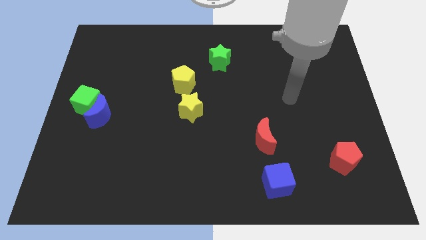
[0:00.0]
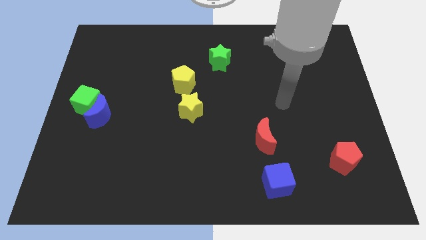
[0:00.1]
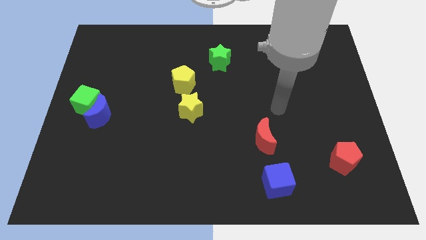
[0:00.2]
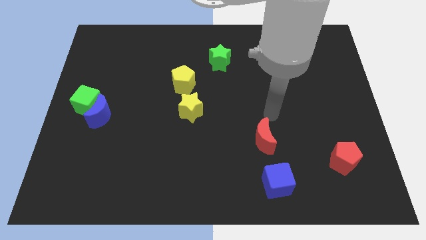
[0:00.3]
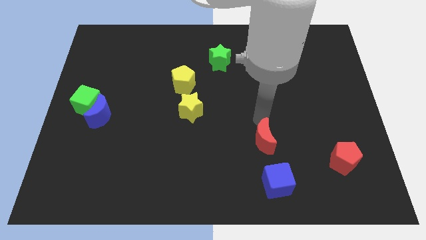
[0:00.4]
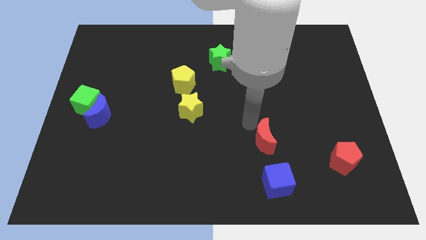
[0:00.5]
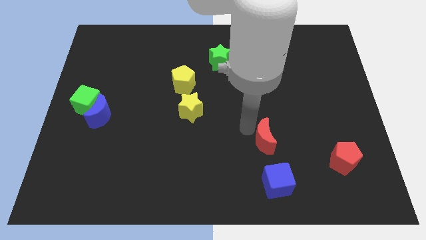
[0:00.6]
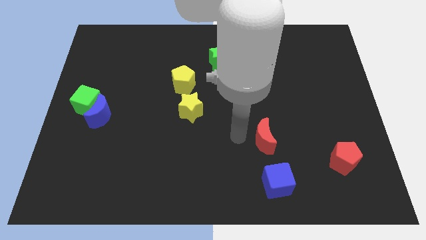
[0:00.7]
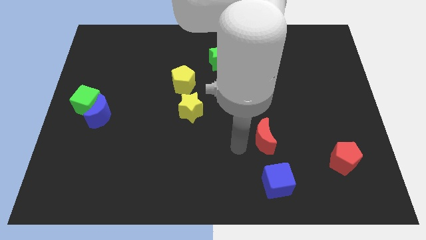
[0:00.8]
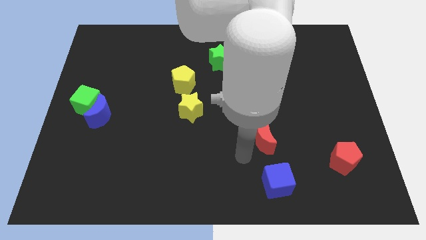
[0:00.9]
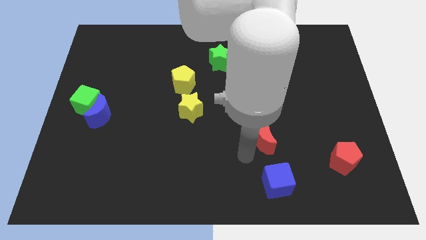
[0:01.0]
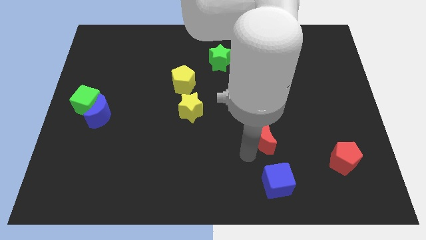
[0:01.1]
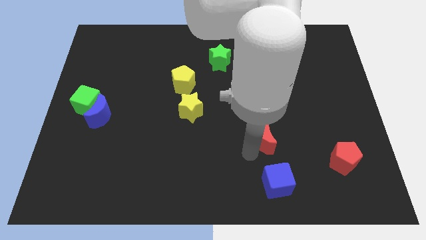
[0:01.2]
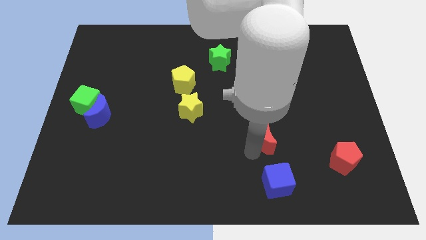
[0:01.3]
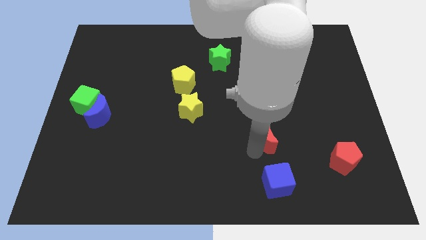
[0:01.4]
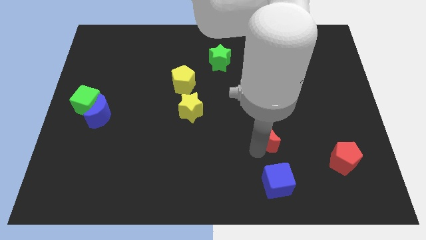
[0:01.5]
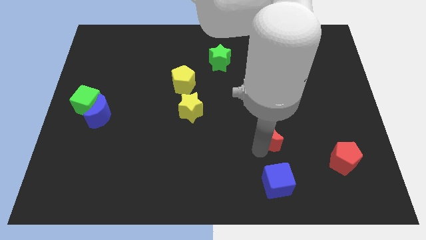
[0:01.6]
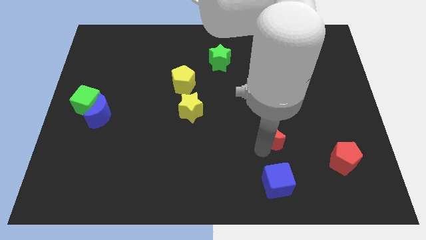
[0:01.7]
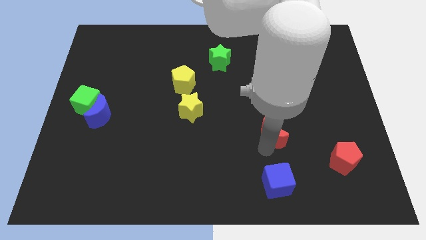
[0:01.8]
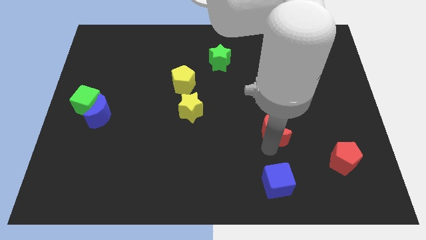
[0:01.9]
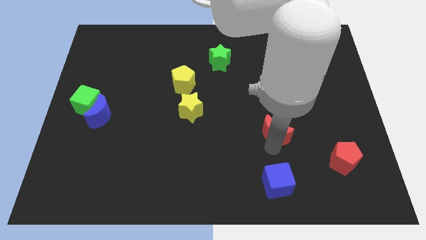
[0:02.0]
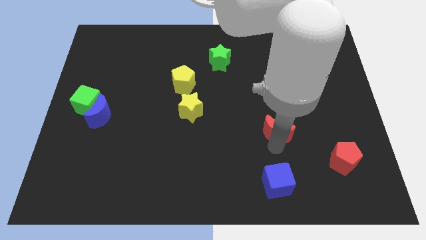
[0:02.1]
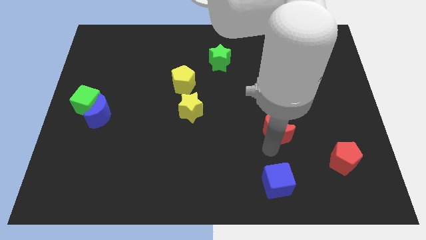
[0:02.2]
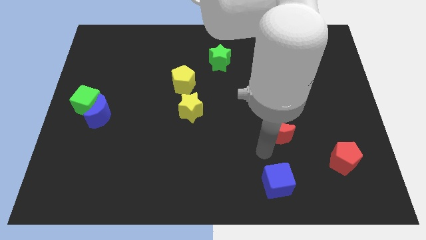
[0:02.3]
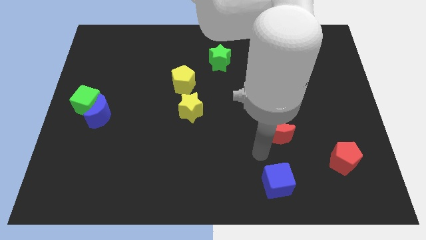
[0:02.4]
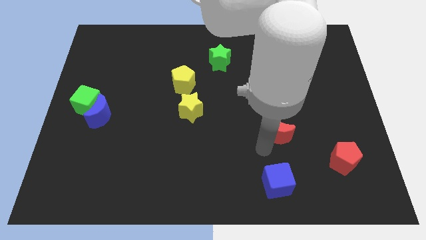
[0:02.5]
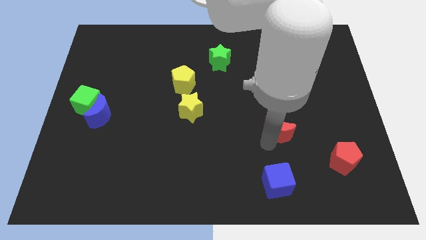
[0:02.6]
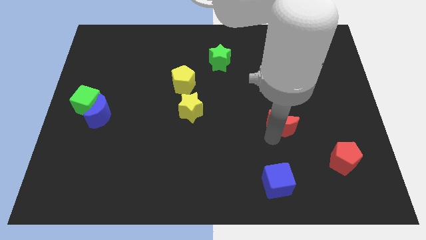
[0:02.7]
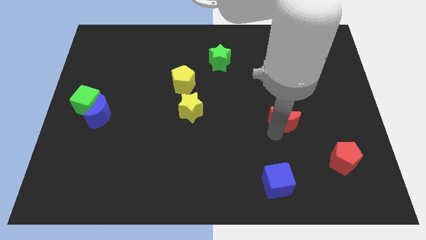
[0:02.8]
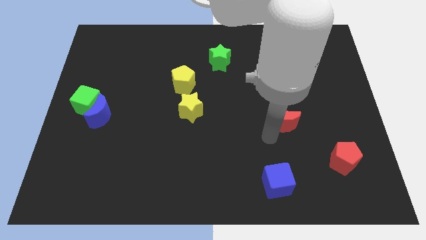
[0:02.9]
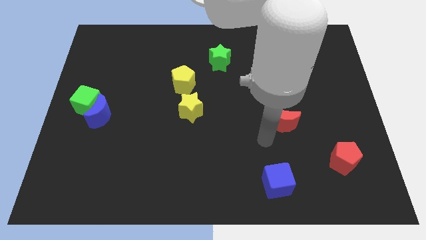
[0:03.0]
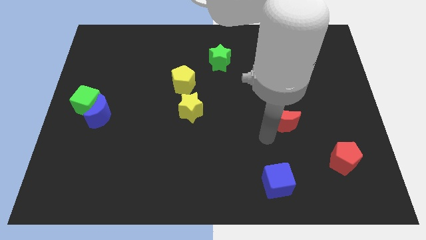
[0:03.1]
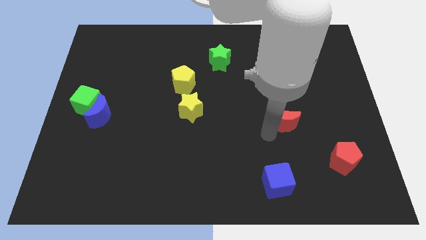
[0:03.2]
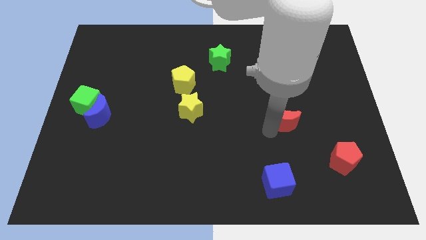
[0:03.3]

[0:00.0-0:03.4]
slide the red moon a bit up and right

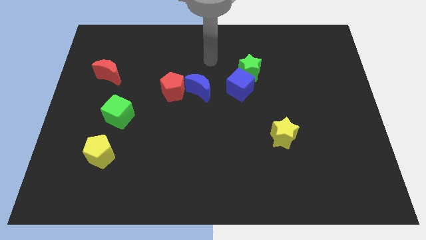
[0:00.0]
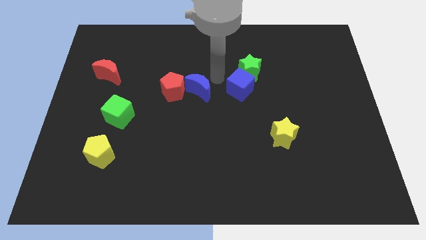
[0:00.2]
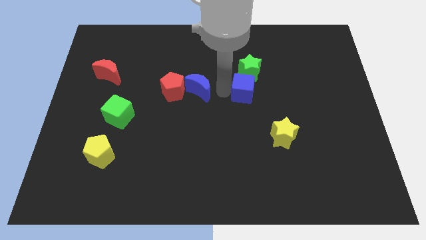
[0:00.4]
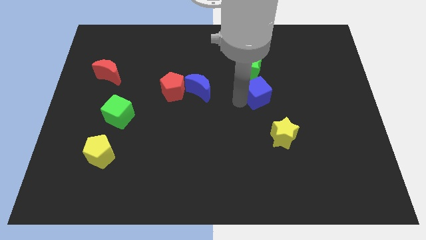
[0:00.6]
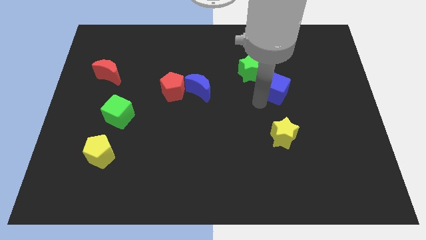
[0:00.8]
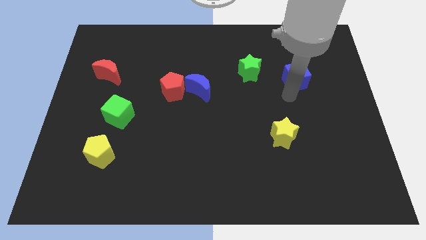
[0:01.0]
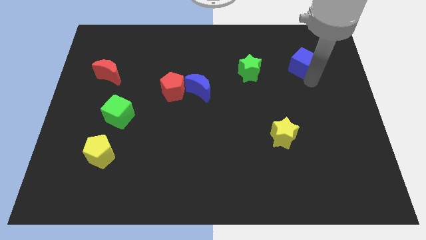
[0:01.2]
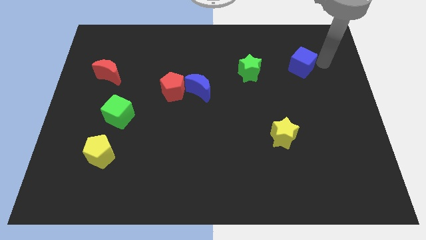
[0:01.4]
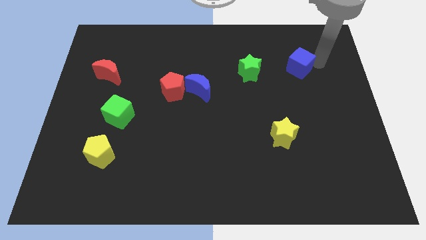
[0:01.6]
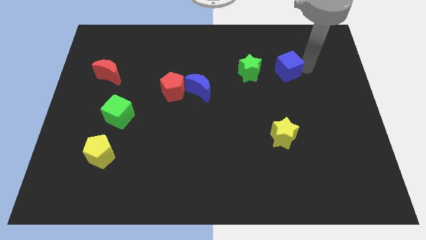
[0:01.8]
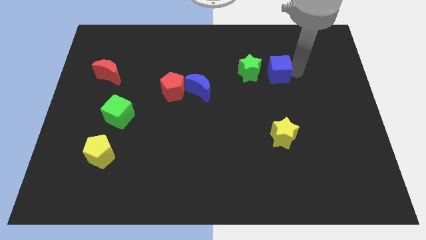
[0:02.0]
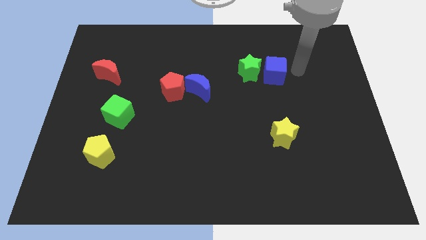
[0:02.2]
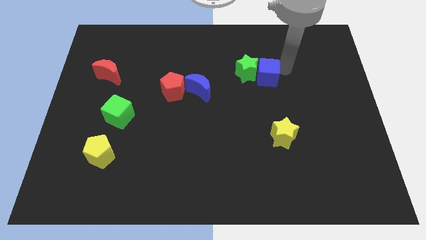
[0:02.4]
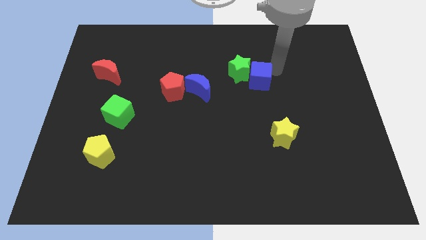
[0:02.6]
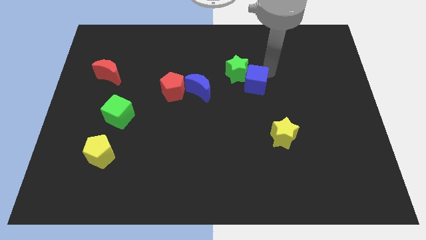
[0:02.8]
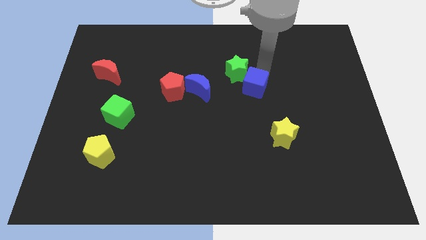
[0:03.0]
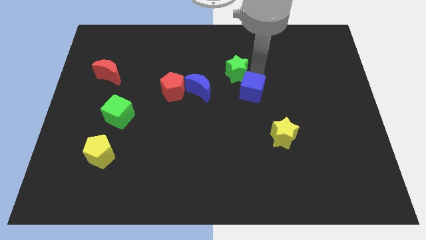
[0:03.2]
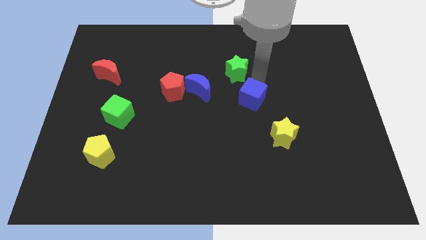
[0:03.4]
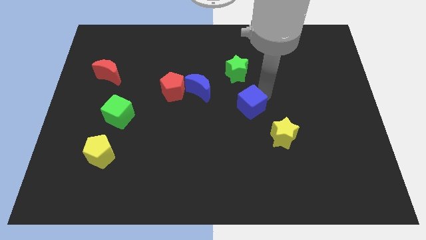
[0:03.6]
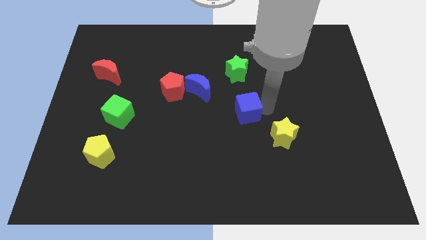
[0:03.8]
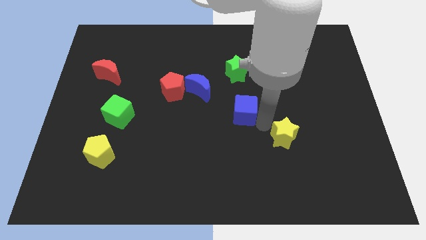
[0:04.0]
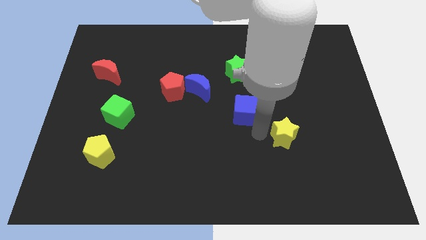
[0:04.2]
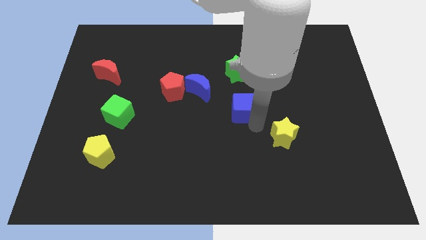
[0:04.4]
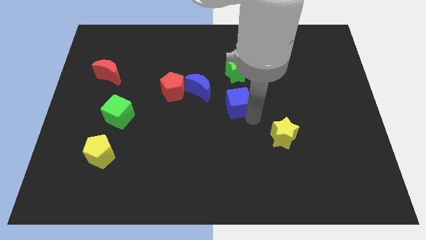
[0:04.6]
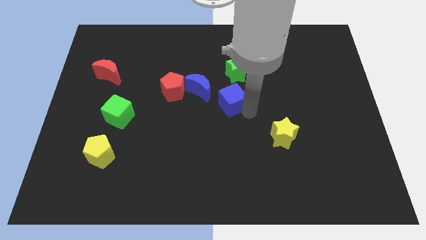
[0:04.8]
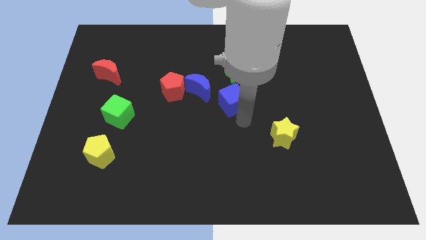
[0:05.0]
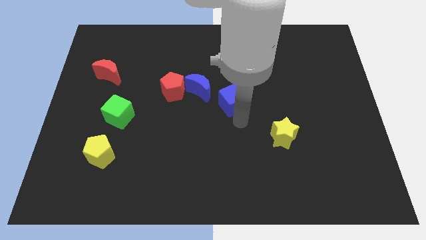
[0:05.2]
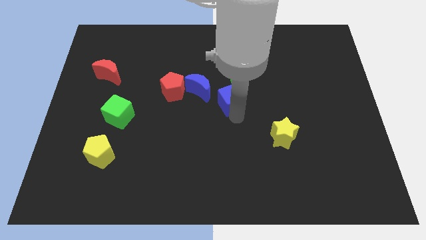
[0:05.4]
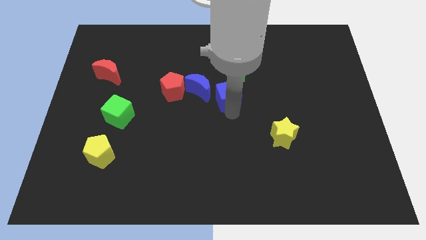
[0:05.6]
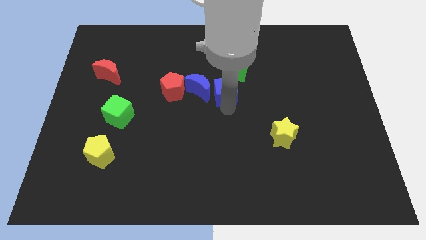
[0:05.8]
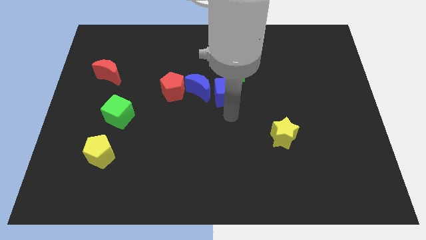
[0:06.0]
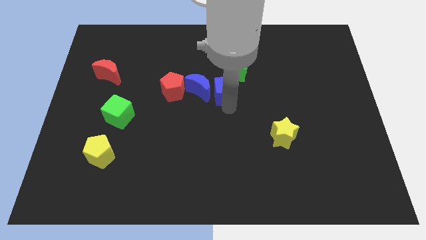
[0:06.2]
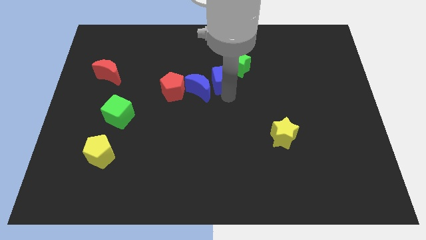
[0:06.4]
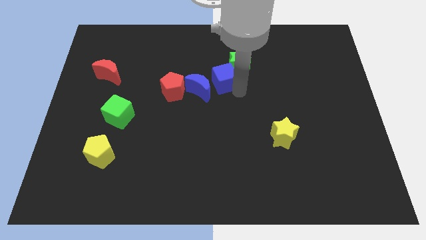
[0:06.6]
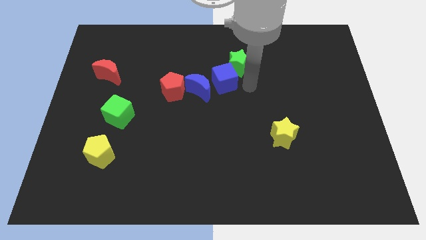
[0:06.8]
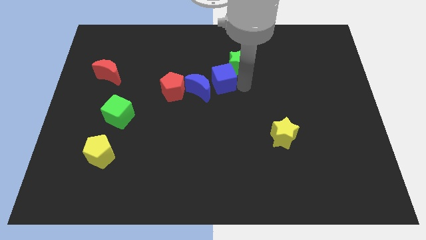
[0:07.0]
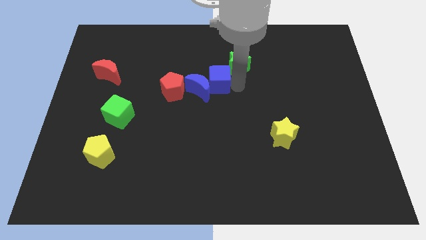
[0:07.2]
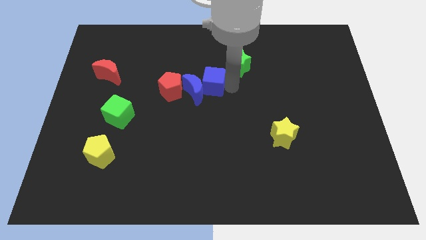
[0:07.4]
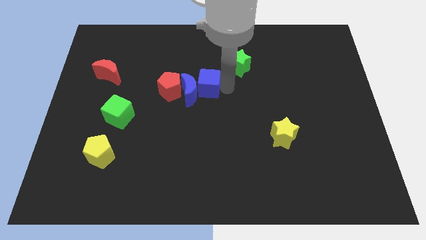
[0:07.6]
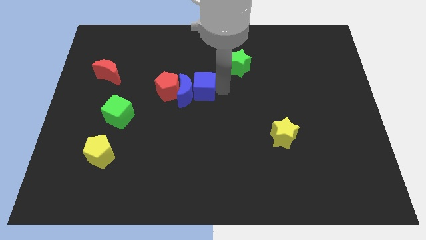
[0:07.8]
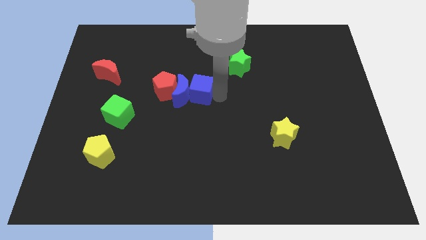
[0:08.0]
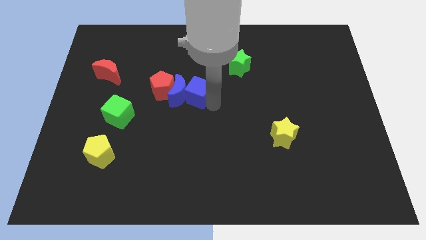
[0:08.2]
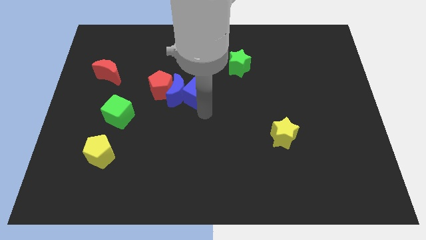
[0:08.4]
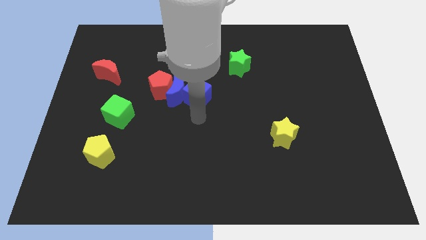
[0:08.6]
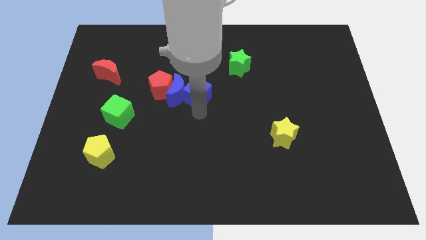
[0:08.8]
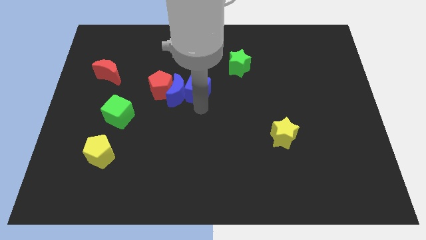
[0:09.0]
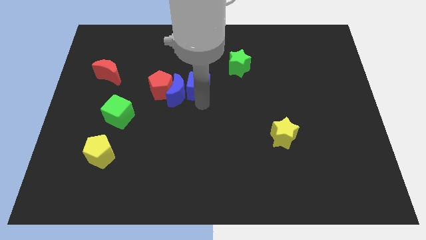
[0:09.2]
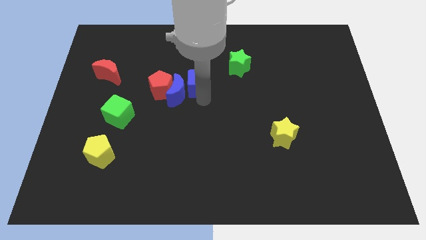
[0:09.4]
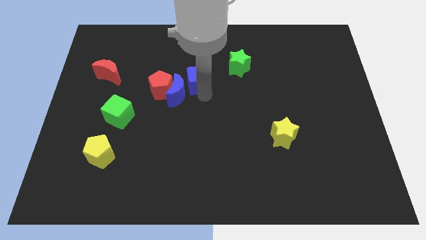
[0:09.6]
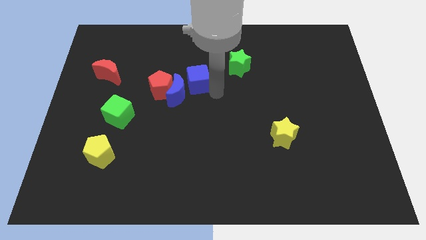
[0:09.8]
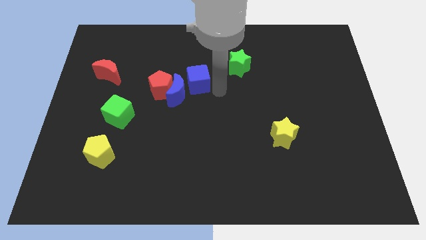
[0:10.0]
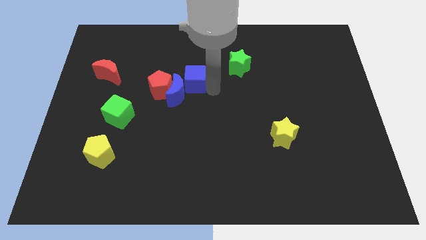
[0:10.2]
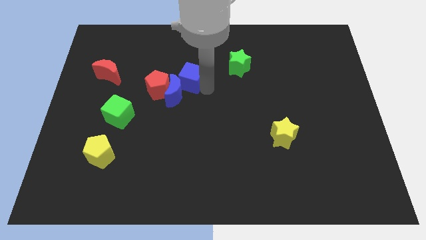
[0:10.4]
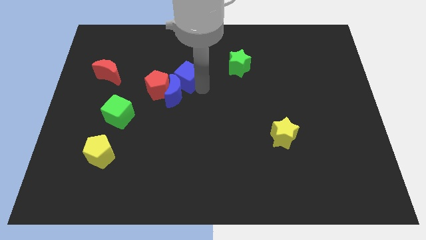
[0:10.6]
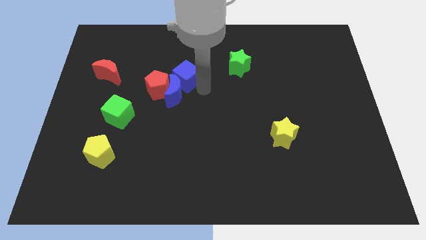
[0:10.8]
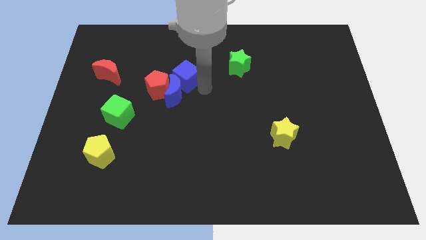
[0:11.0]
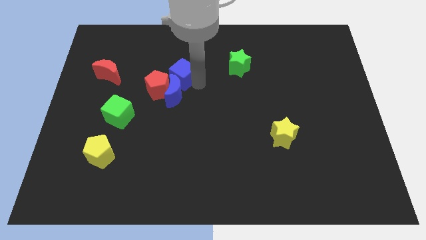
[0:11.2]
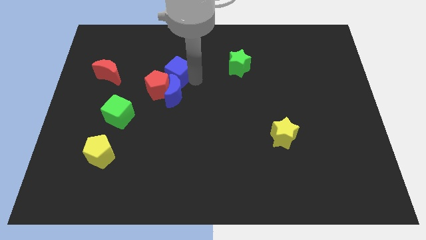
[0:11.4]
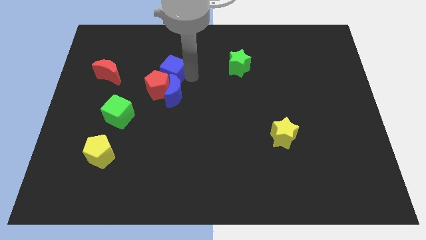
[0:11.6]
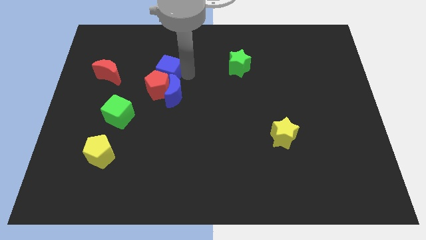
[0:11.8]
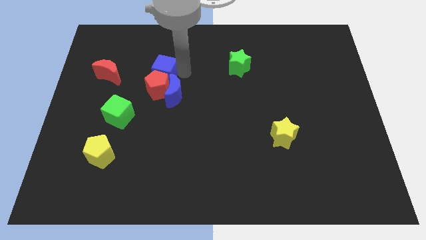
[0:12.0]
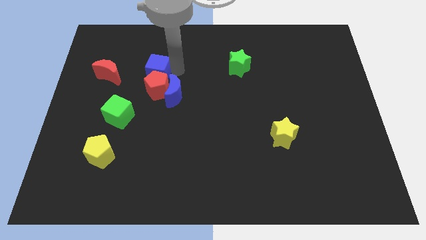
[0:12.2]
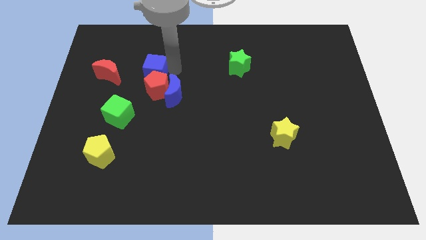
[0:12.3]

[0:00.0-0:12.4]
push the blue cube to the left
